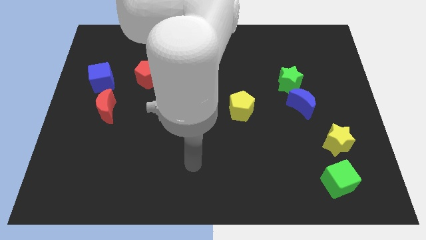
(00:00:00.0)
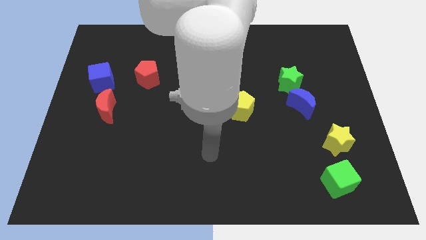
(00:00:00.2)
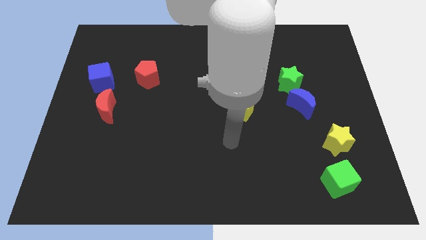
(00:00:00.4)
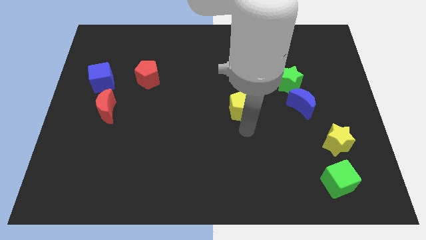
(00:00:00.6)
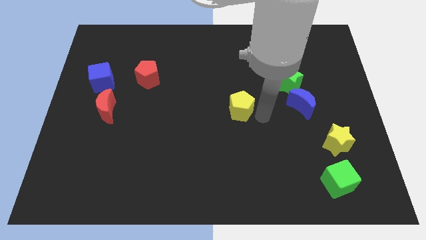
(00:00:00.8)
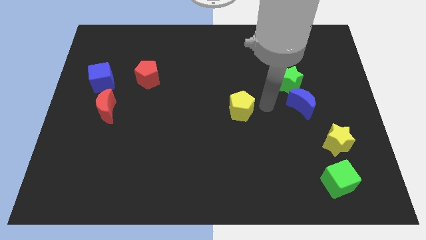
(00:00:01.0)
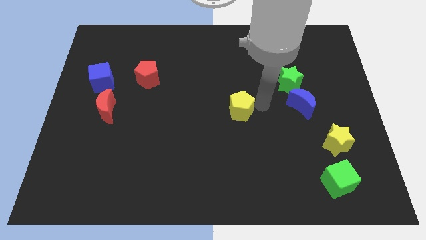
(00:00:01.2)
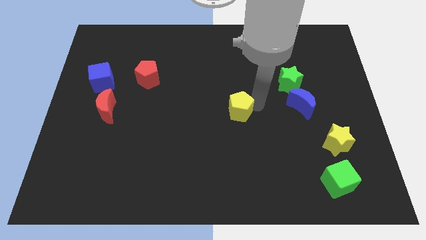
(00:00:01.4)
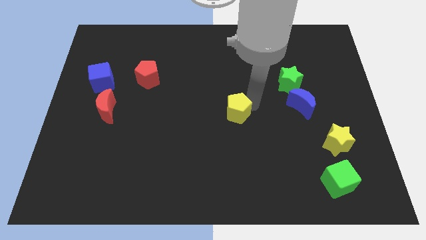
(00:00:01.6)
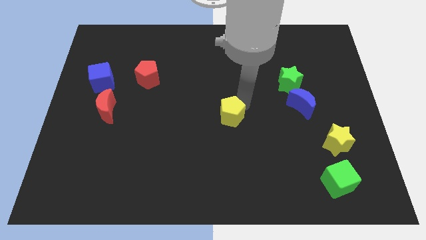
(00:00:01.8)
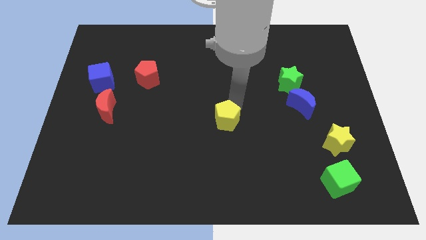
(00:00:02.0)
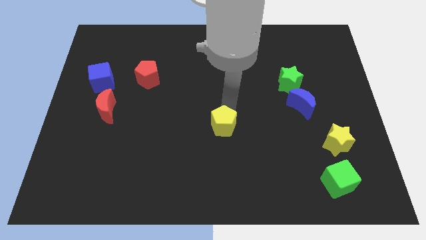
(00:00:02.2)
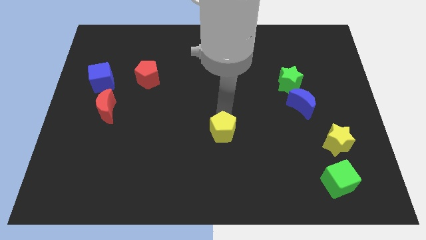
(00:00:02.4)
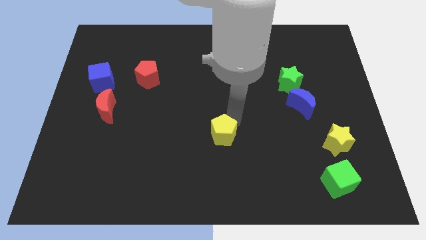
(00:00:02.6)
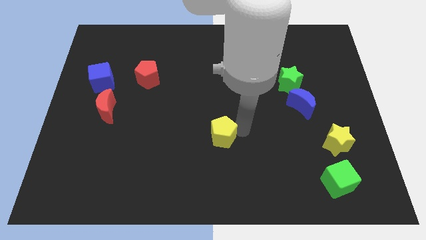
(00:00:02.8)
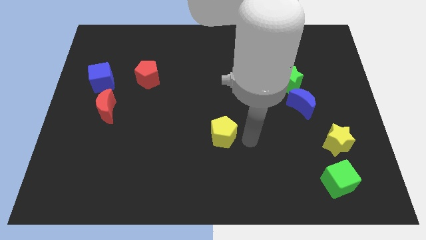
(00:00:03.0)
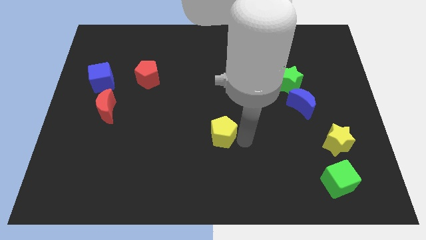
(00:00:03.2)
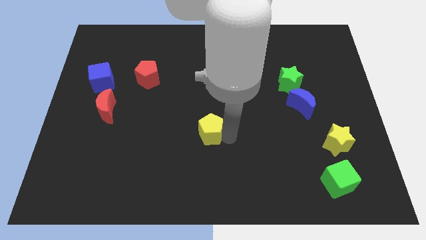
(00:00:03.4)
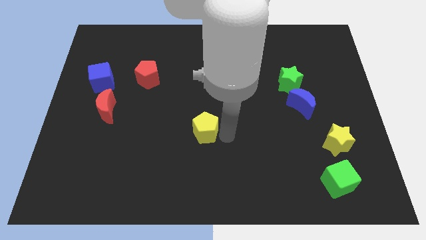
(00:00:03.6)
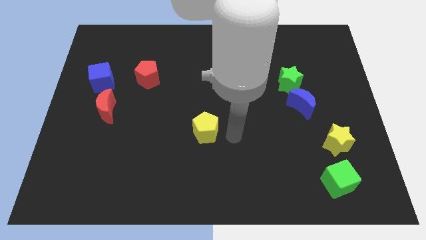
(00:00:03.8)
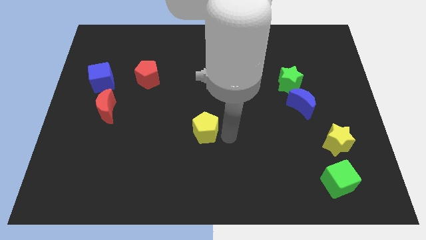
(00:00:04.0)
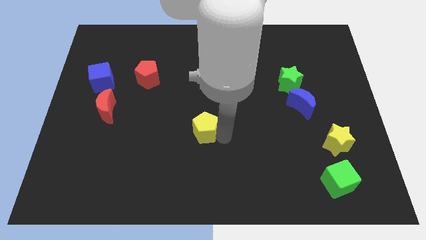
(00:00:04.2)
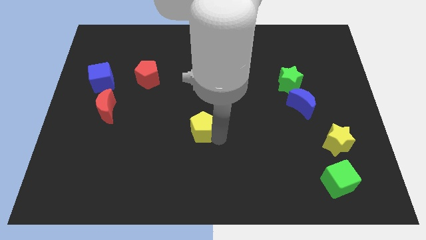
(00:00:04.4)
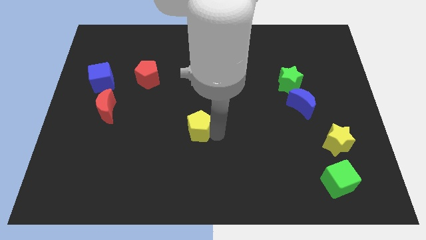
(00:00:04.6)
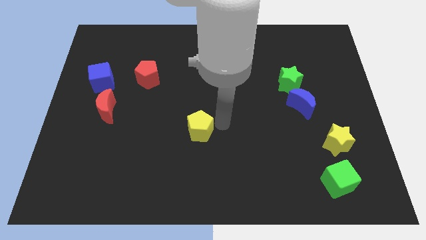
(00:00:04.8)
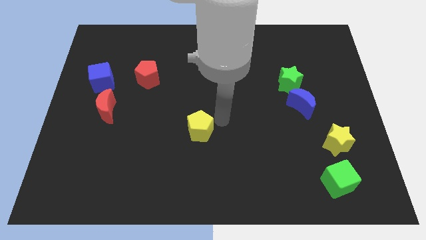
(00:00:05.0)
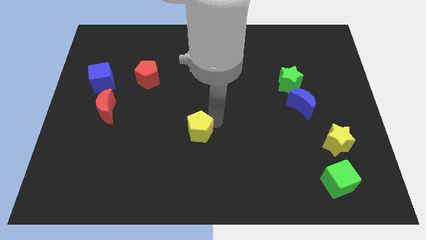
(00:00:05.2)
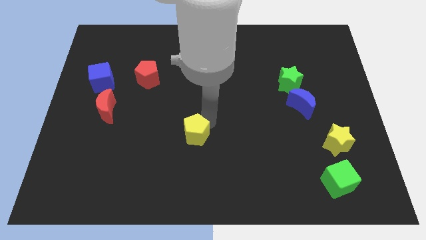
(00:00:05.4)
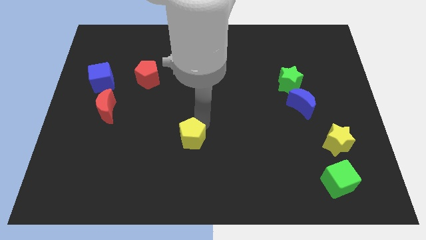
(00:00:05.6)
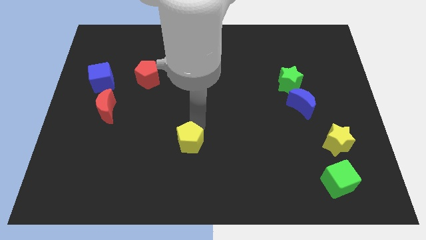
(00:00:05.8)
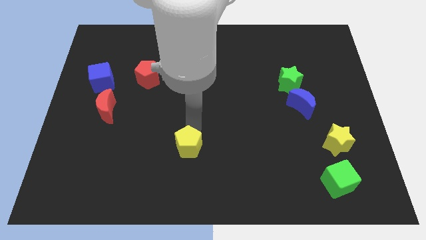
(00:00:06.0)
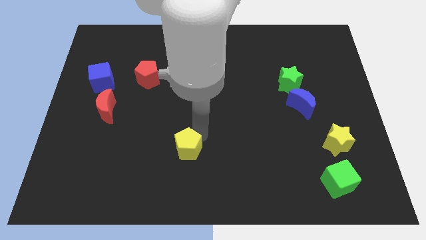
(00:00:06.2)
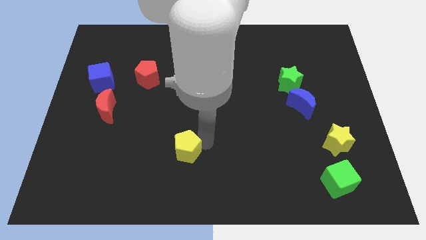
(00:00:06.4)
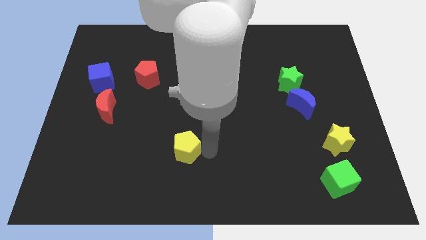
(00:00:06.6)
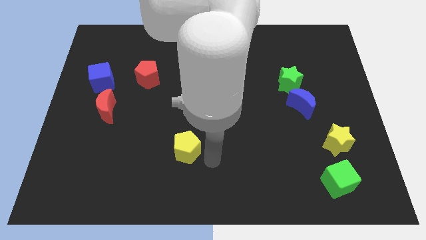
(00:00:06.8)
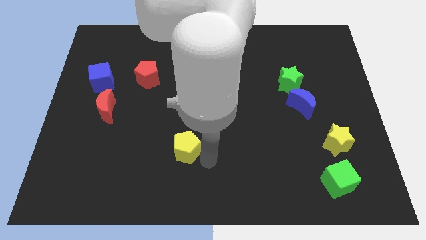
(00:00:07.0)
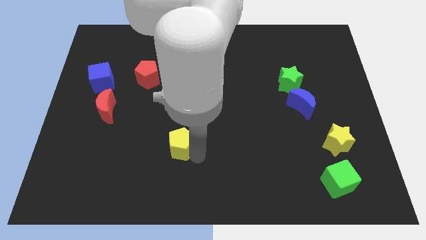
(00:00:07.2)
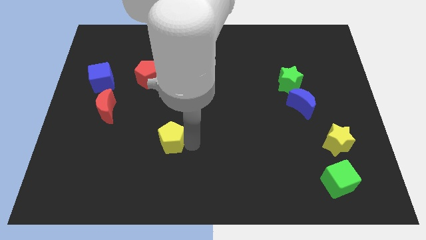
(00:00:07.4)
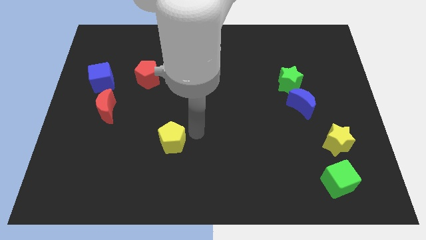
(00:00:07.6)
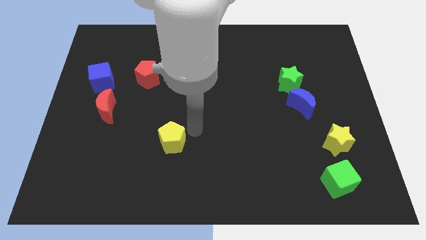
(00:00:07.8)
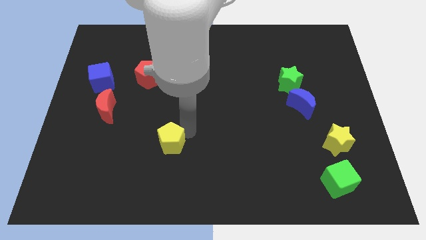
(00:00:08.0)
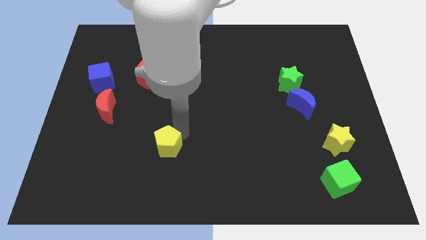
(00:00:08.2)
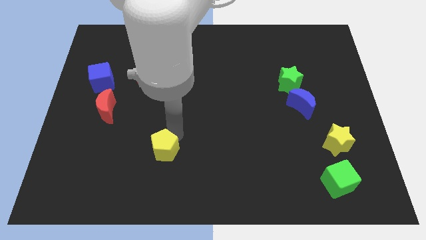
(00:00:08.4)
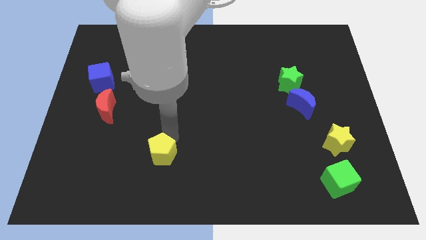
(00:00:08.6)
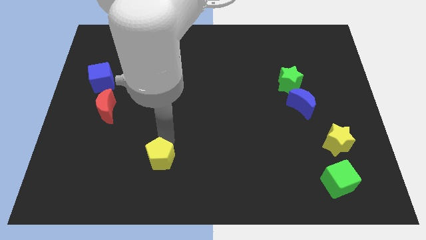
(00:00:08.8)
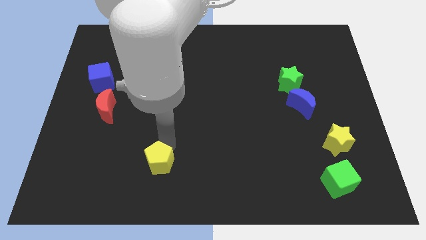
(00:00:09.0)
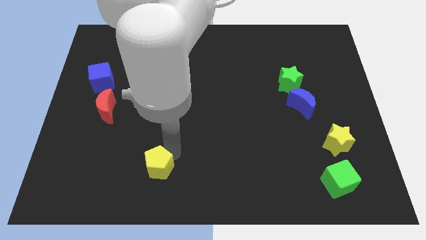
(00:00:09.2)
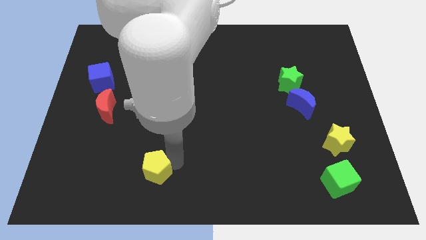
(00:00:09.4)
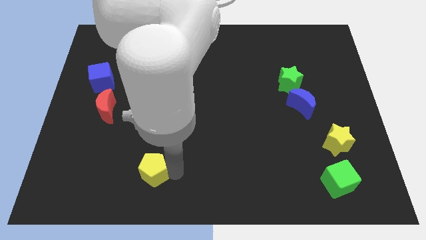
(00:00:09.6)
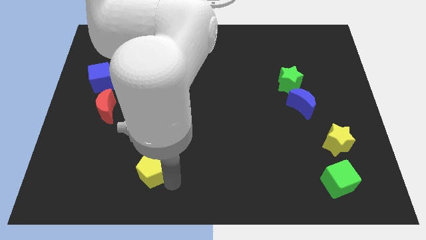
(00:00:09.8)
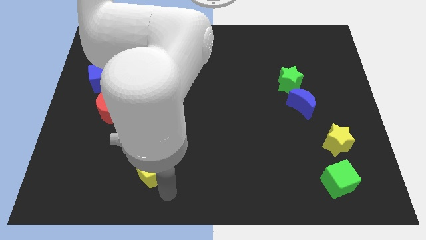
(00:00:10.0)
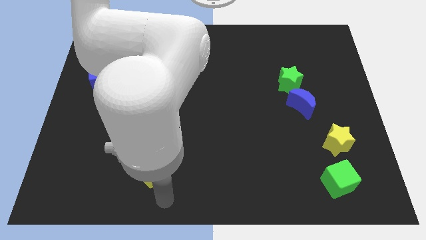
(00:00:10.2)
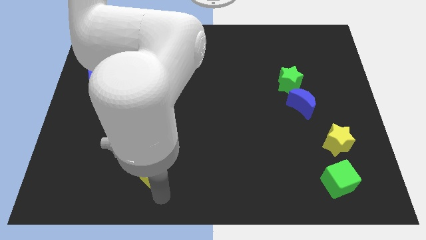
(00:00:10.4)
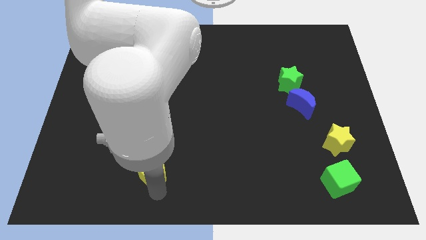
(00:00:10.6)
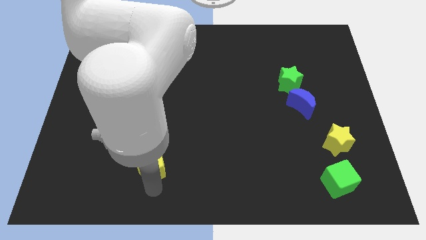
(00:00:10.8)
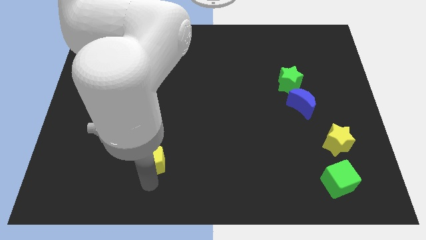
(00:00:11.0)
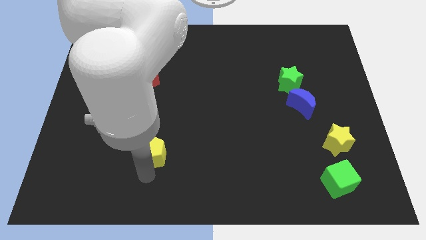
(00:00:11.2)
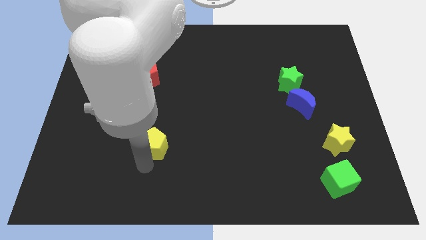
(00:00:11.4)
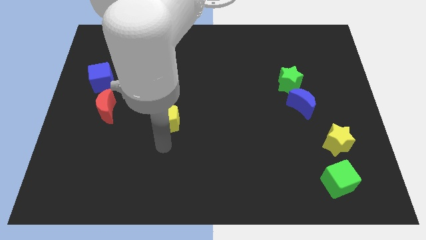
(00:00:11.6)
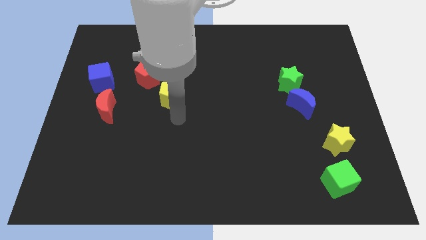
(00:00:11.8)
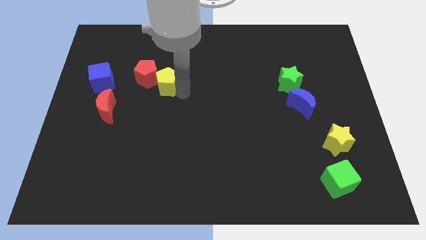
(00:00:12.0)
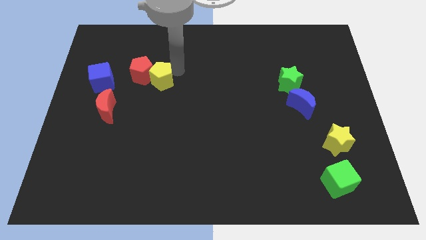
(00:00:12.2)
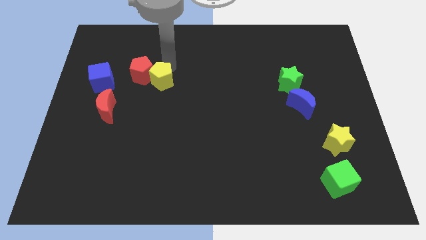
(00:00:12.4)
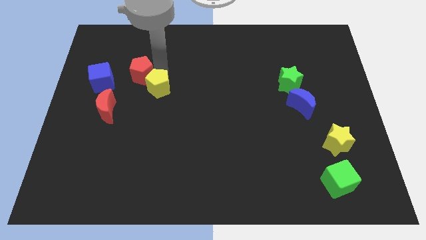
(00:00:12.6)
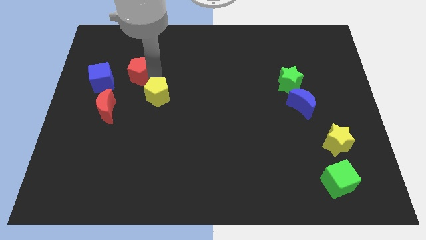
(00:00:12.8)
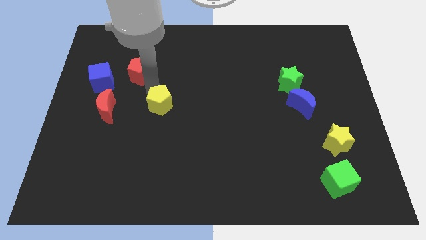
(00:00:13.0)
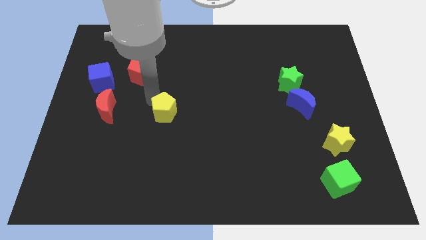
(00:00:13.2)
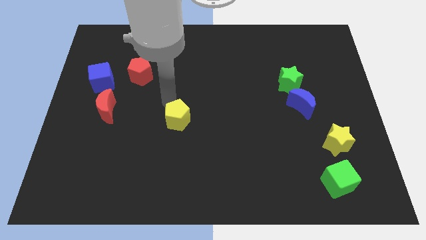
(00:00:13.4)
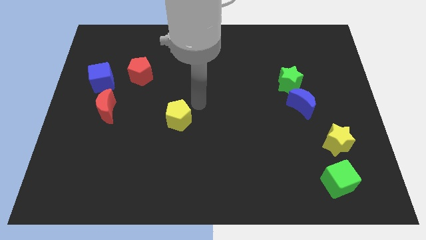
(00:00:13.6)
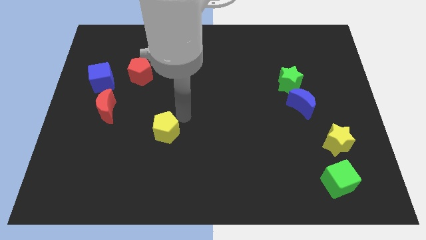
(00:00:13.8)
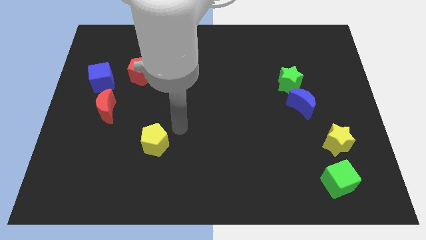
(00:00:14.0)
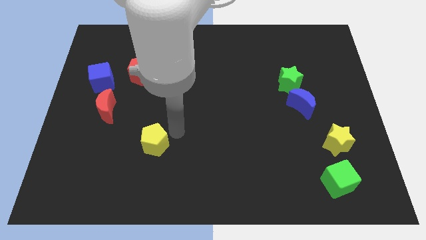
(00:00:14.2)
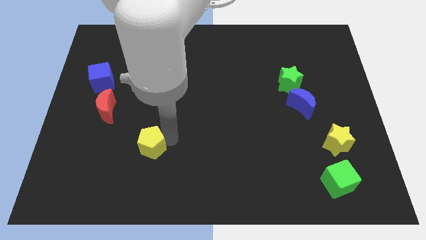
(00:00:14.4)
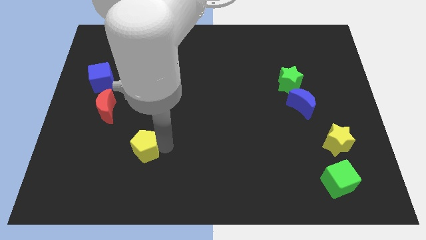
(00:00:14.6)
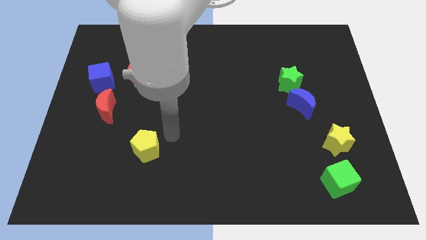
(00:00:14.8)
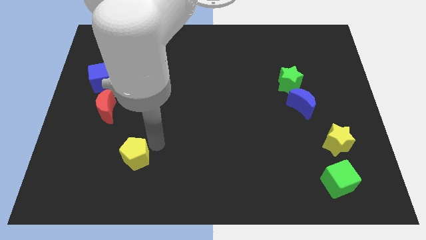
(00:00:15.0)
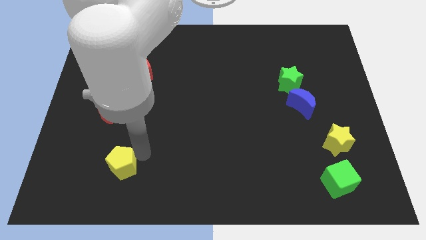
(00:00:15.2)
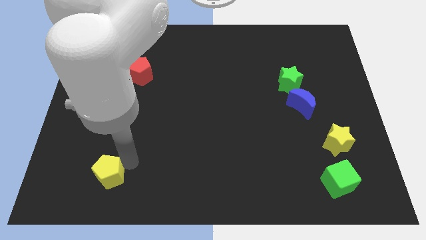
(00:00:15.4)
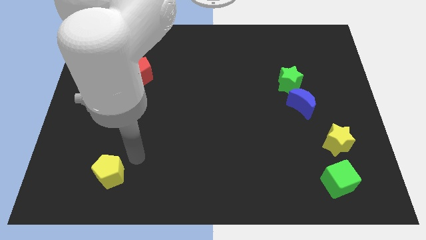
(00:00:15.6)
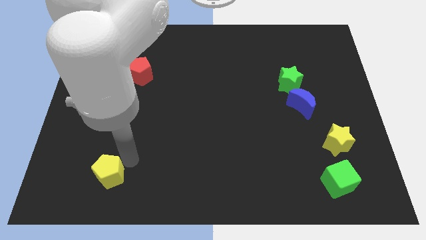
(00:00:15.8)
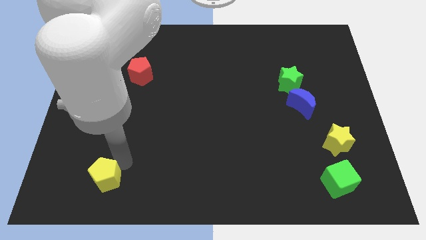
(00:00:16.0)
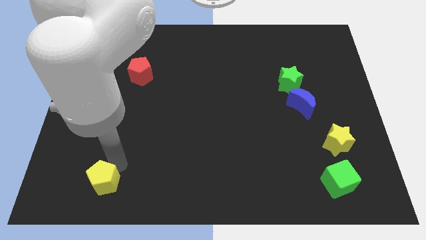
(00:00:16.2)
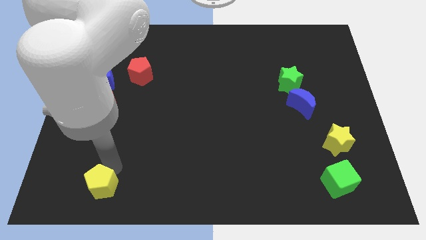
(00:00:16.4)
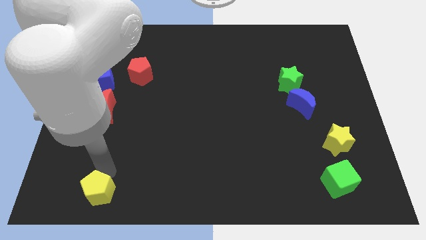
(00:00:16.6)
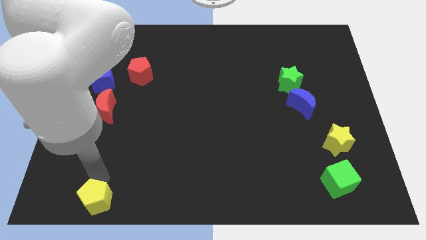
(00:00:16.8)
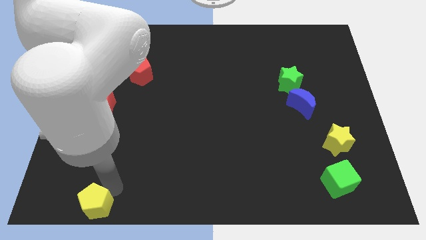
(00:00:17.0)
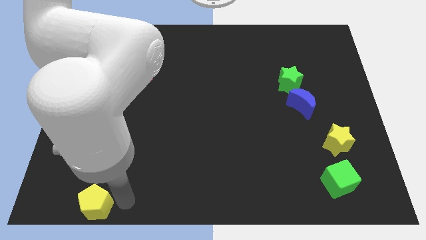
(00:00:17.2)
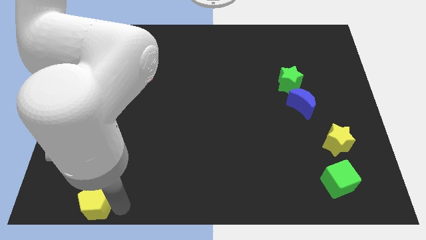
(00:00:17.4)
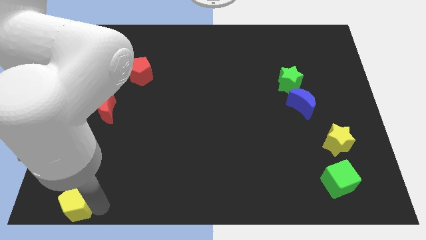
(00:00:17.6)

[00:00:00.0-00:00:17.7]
slide the yellow pentagon to the lower left corner
